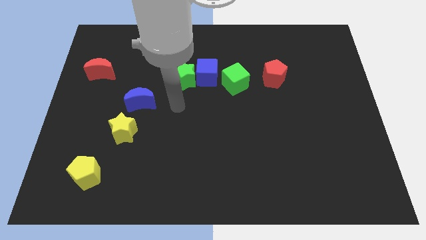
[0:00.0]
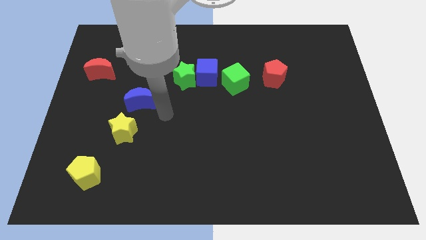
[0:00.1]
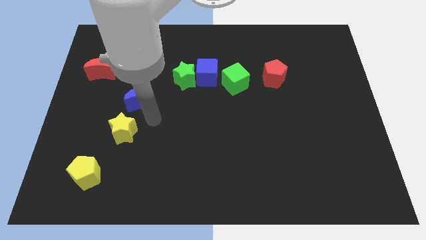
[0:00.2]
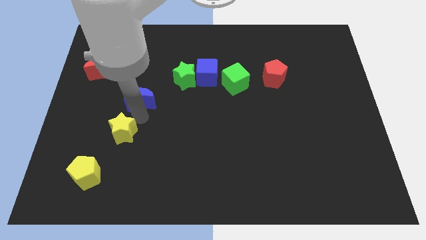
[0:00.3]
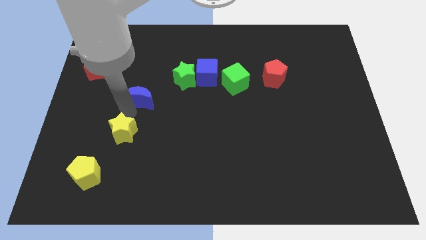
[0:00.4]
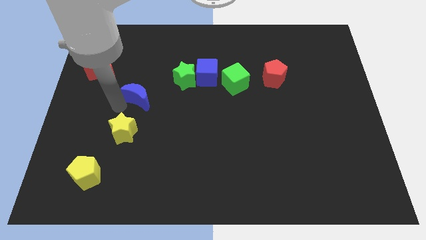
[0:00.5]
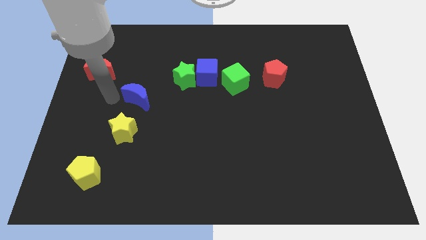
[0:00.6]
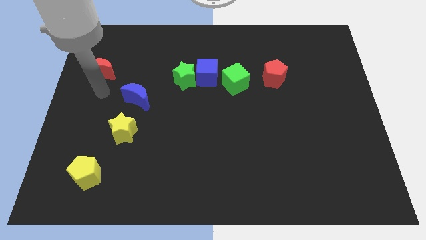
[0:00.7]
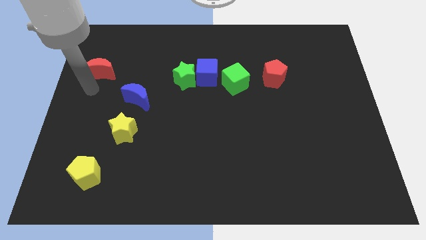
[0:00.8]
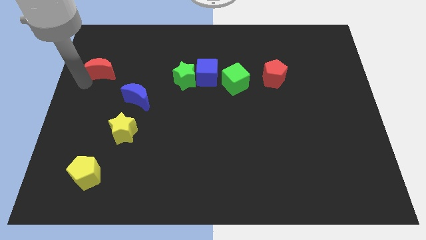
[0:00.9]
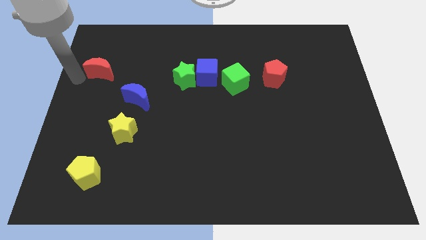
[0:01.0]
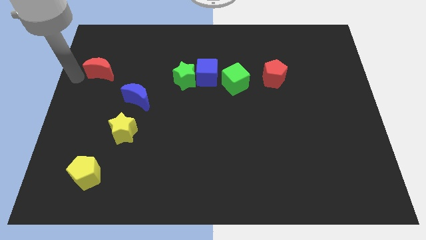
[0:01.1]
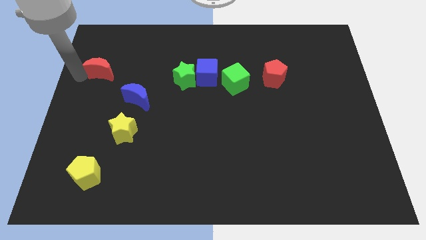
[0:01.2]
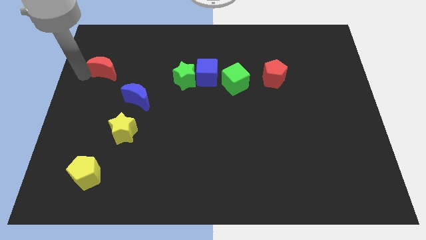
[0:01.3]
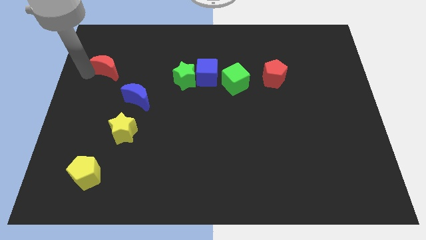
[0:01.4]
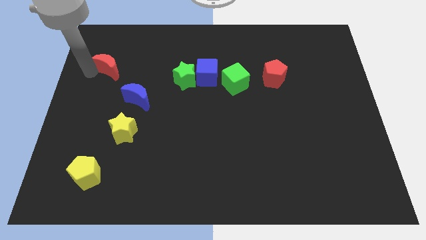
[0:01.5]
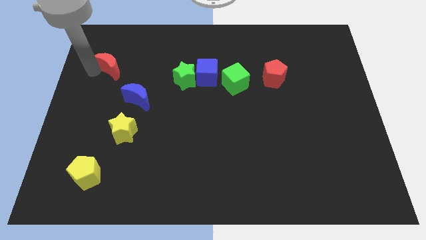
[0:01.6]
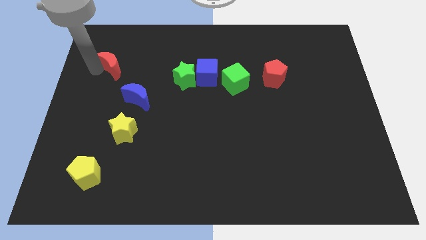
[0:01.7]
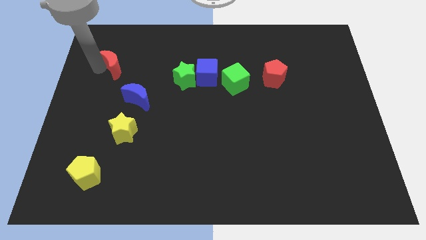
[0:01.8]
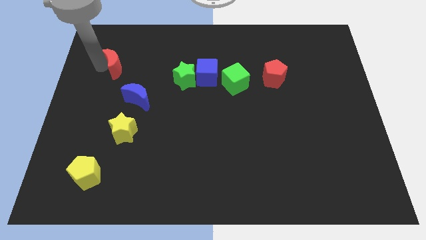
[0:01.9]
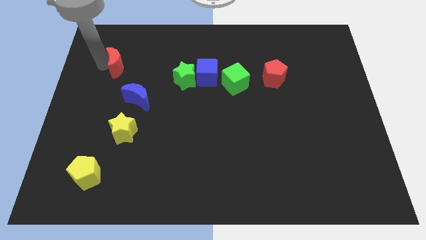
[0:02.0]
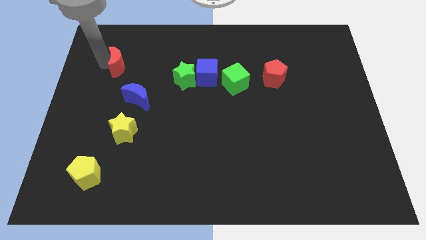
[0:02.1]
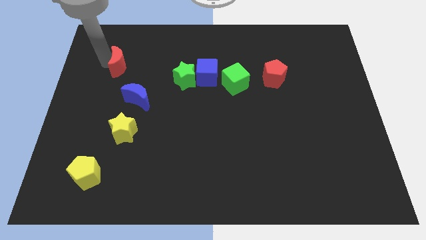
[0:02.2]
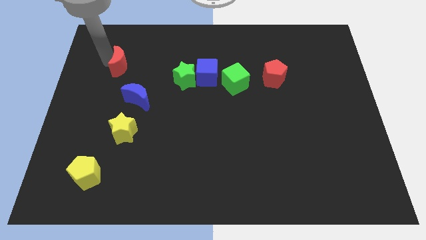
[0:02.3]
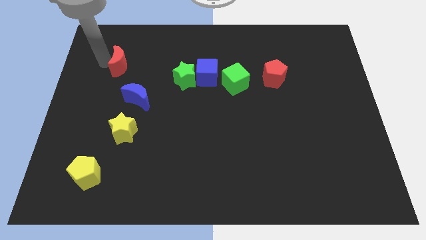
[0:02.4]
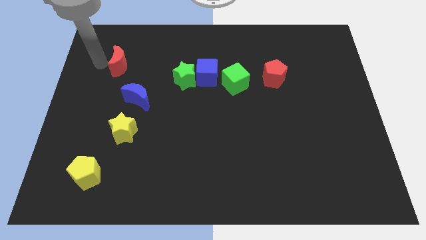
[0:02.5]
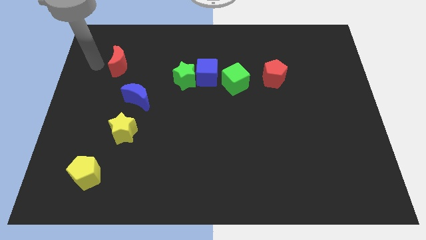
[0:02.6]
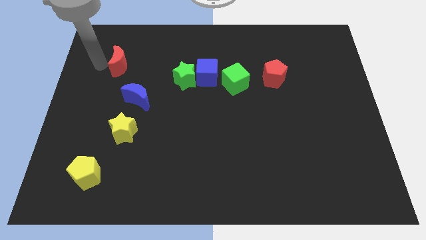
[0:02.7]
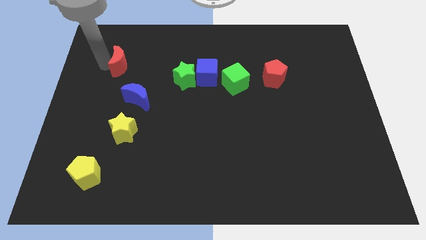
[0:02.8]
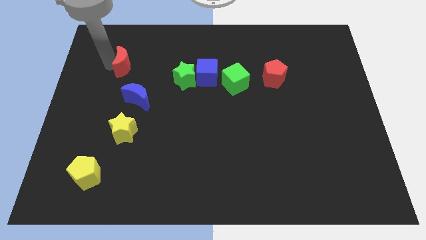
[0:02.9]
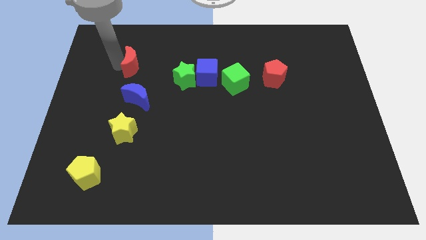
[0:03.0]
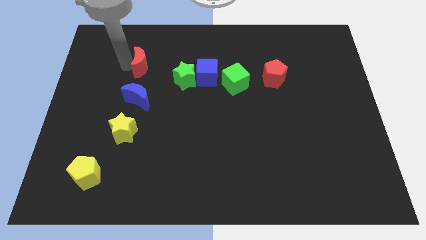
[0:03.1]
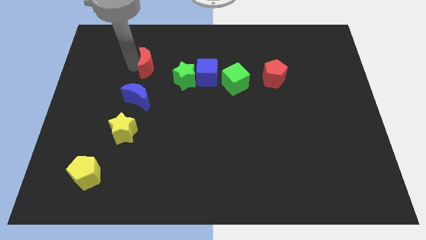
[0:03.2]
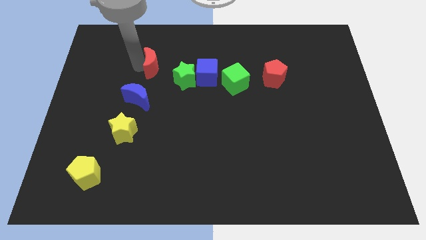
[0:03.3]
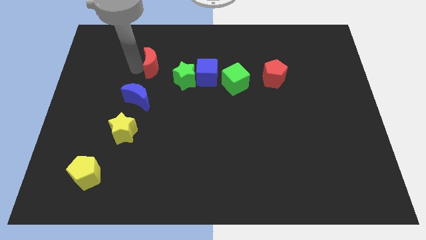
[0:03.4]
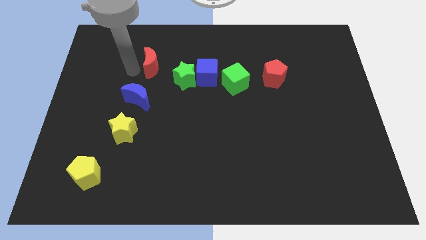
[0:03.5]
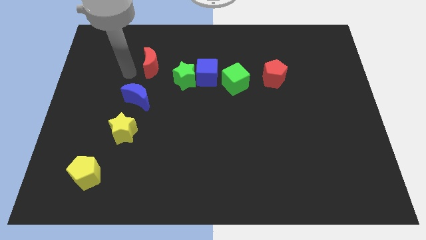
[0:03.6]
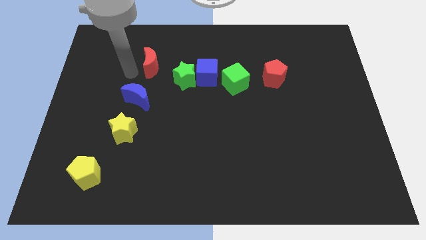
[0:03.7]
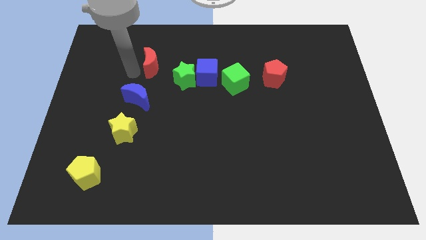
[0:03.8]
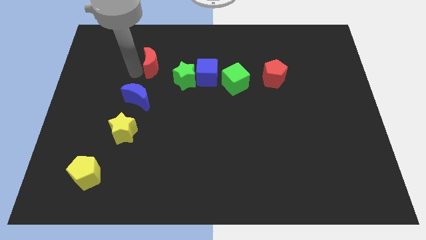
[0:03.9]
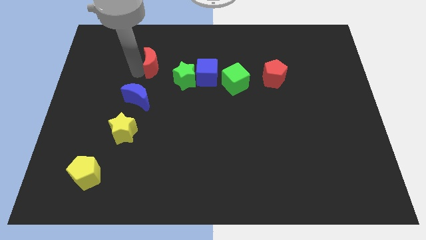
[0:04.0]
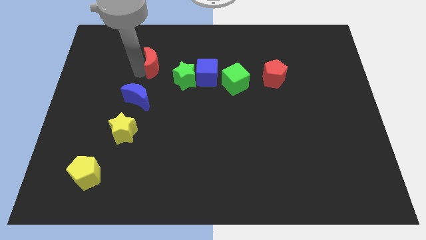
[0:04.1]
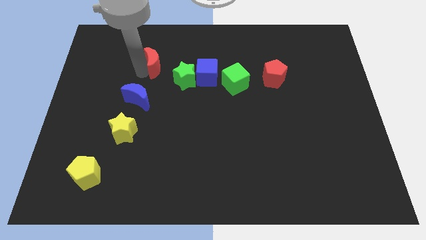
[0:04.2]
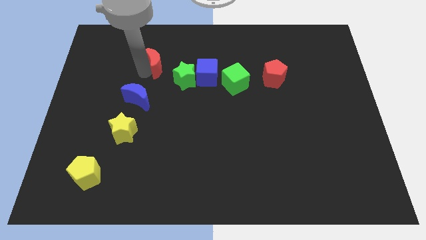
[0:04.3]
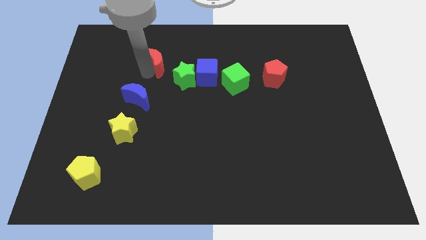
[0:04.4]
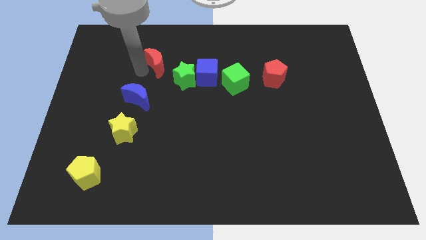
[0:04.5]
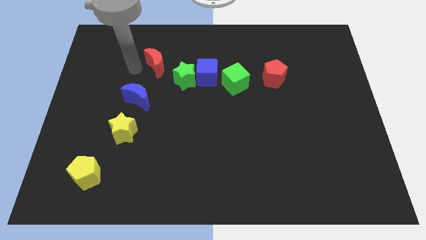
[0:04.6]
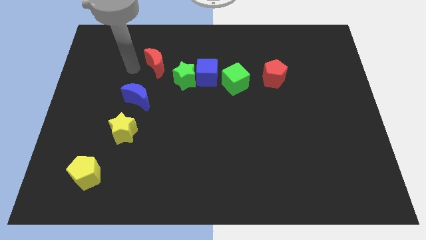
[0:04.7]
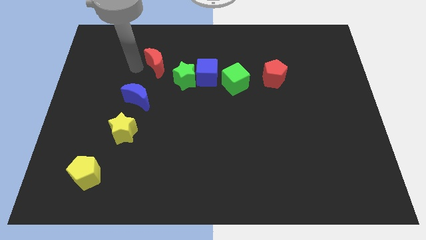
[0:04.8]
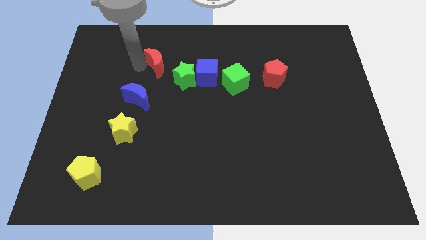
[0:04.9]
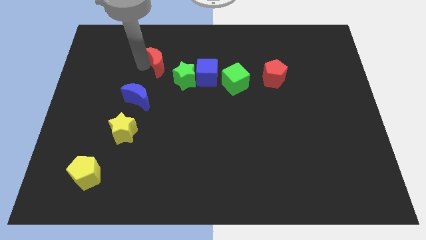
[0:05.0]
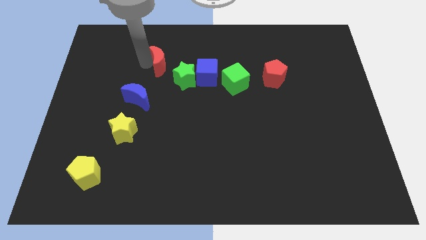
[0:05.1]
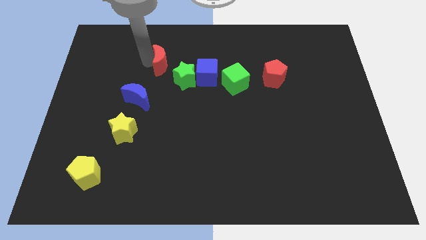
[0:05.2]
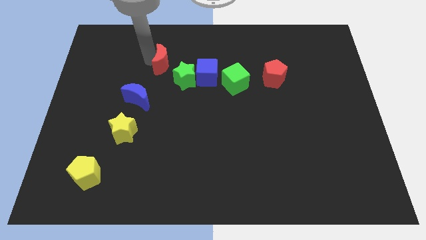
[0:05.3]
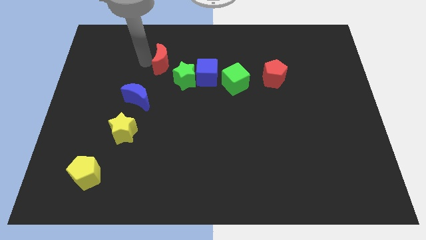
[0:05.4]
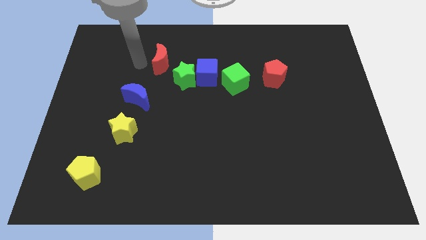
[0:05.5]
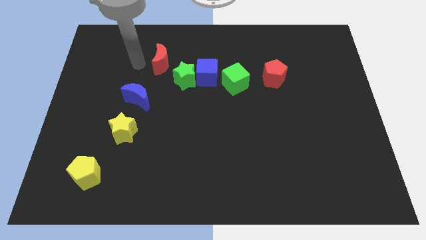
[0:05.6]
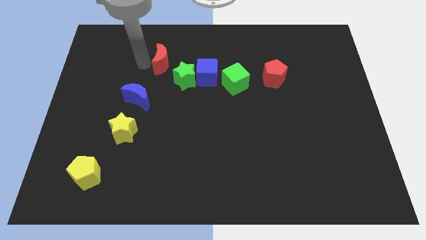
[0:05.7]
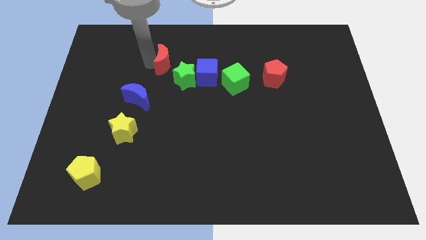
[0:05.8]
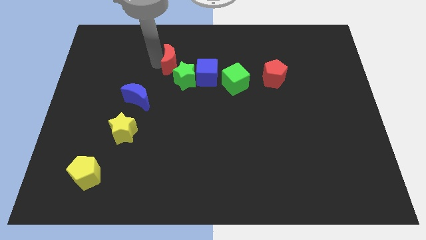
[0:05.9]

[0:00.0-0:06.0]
slide the red moon to the top left side of the blue cube
